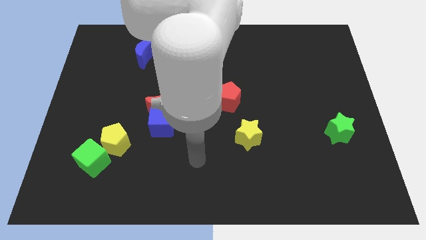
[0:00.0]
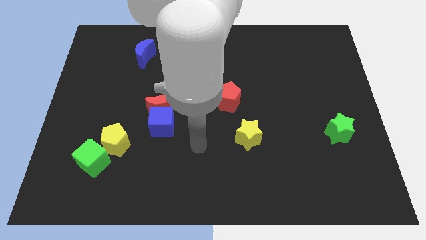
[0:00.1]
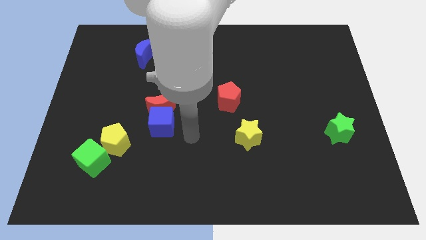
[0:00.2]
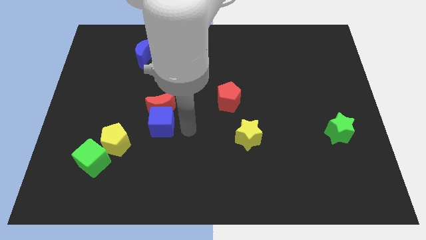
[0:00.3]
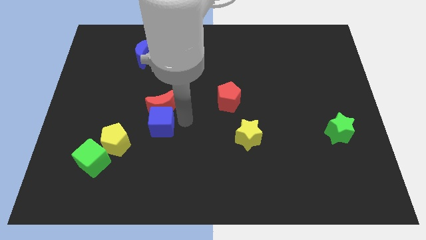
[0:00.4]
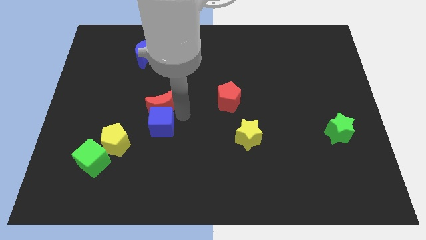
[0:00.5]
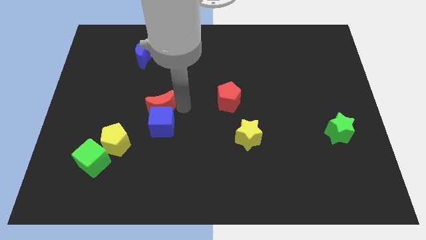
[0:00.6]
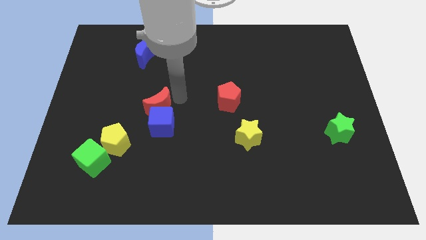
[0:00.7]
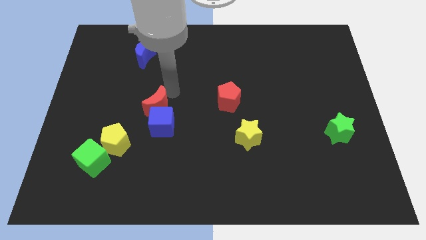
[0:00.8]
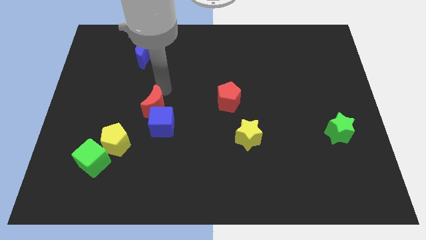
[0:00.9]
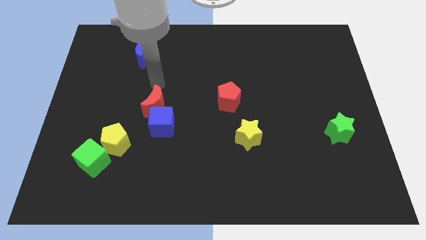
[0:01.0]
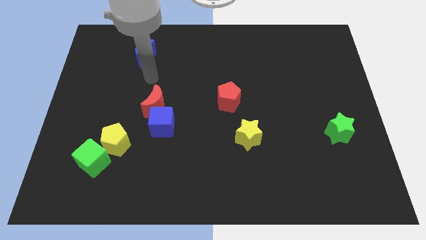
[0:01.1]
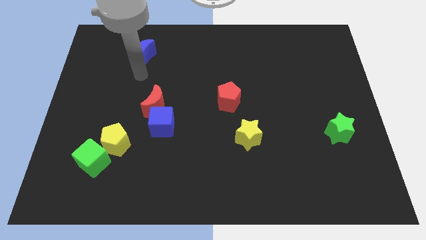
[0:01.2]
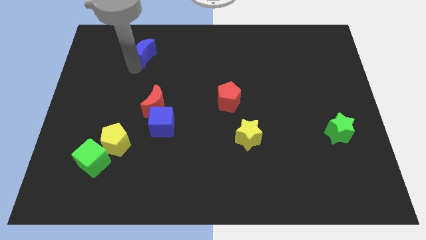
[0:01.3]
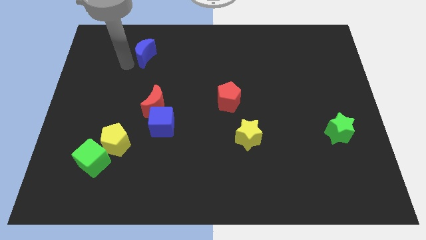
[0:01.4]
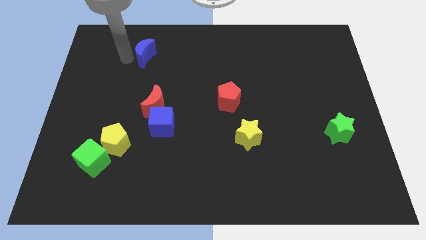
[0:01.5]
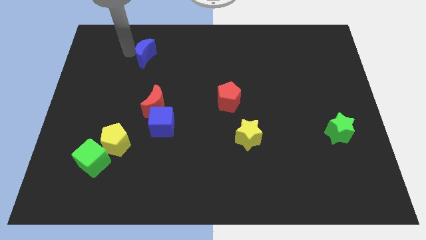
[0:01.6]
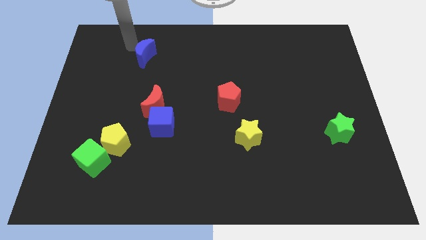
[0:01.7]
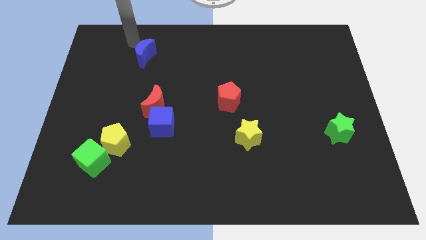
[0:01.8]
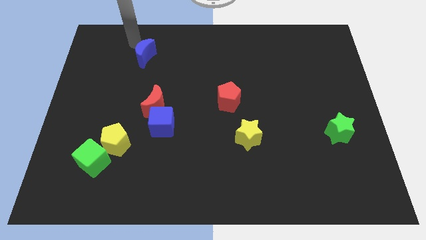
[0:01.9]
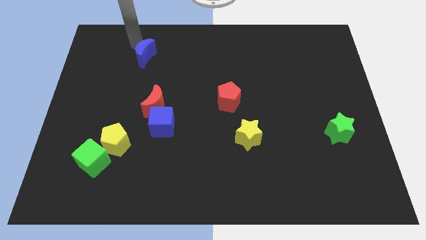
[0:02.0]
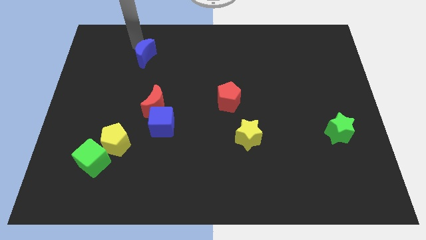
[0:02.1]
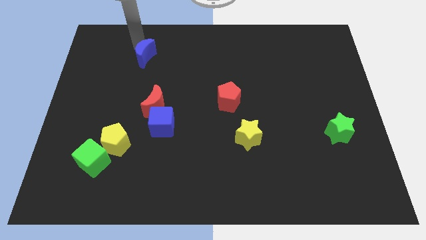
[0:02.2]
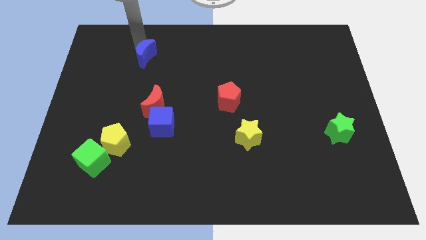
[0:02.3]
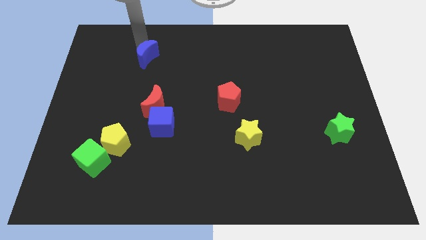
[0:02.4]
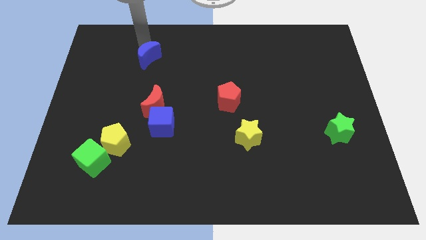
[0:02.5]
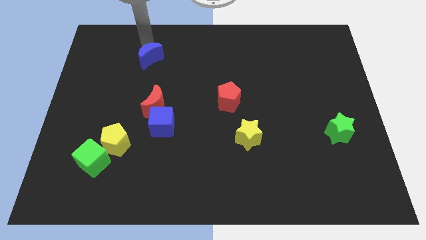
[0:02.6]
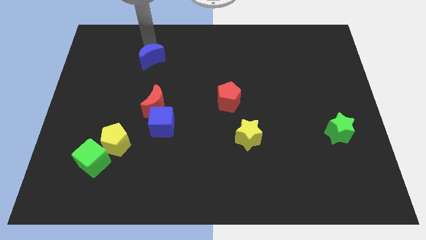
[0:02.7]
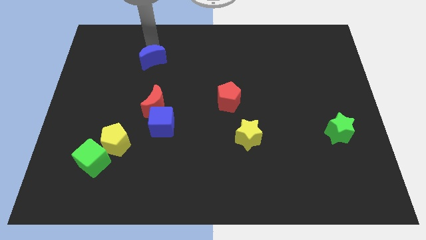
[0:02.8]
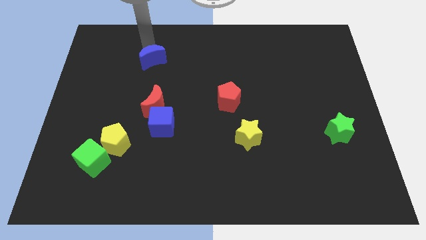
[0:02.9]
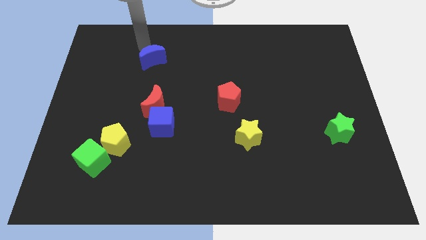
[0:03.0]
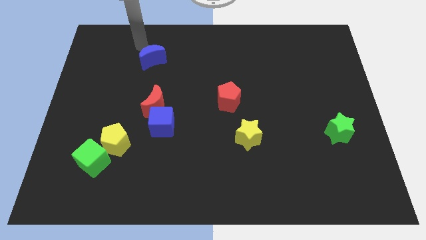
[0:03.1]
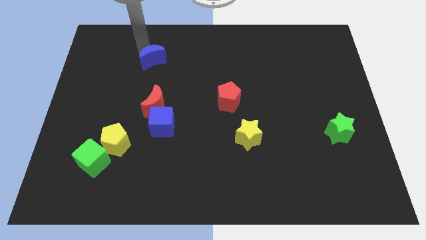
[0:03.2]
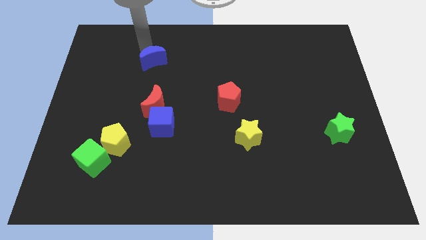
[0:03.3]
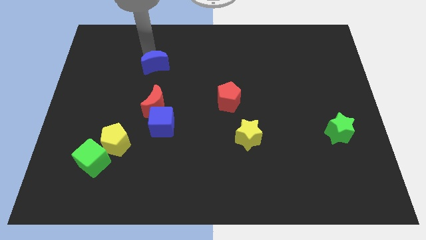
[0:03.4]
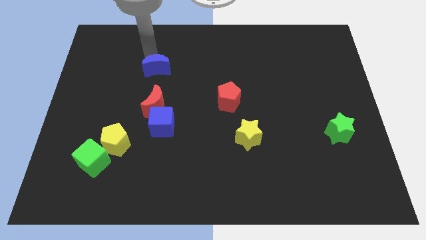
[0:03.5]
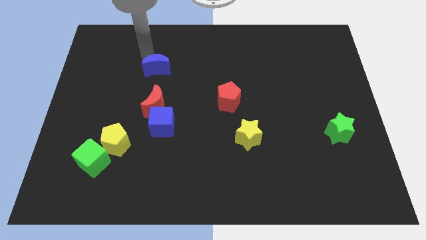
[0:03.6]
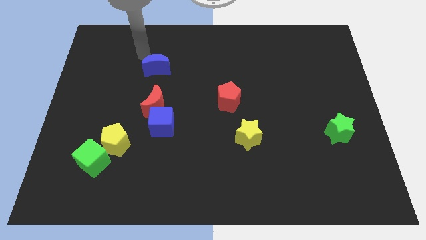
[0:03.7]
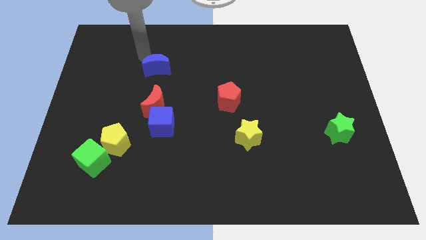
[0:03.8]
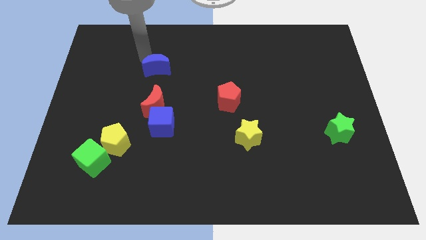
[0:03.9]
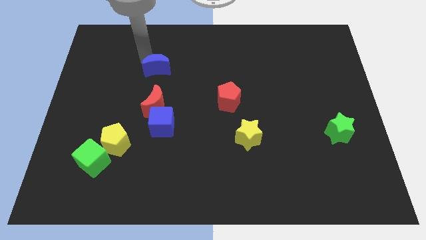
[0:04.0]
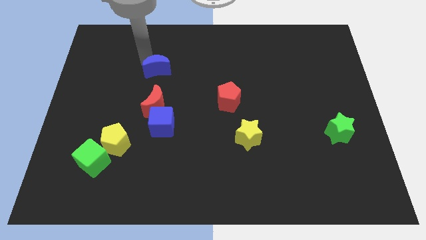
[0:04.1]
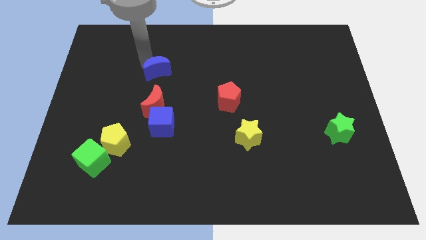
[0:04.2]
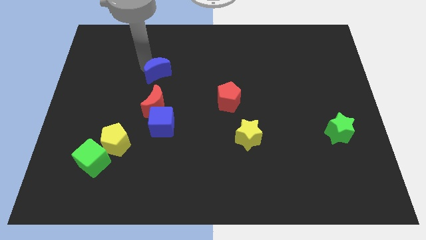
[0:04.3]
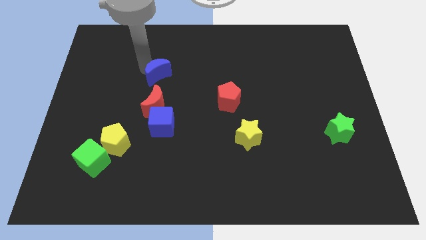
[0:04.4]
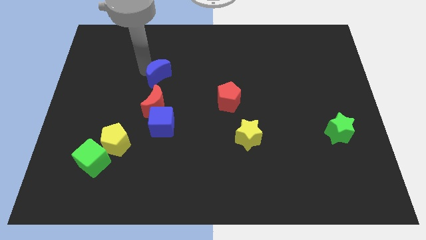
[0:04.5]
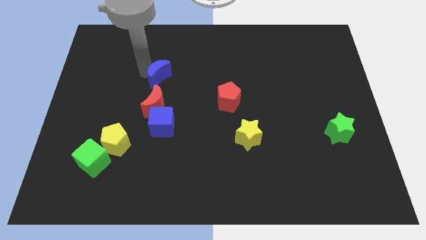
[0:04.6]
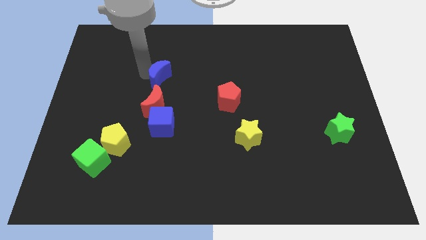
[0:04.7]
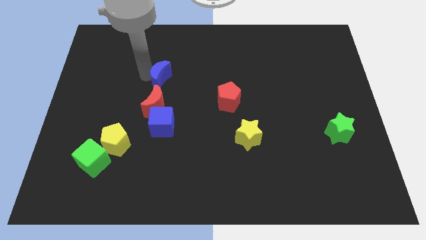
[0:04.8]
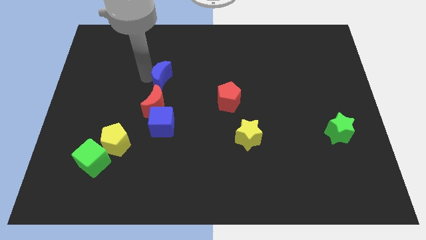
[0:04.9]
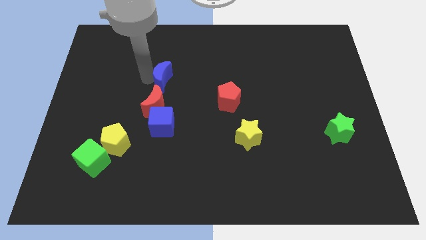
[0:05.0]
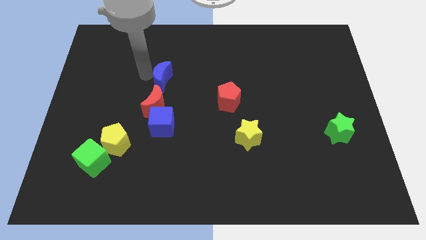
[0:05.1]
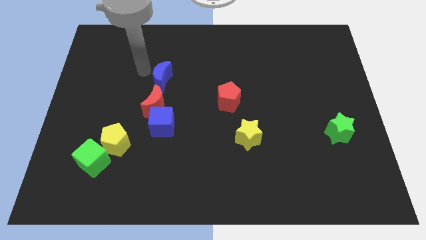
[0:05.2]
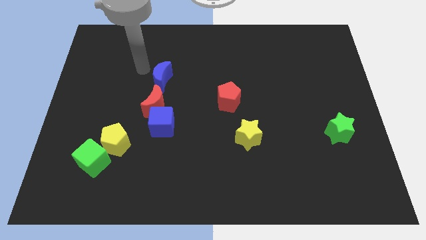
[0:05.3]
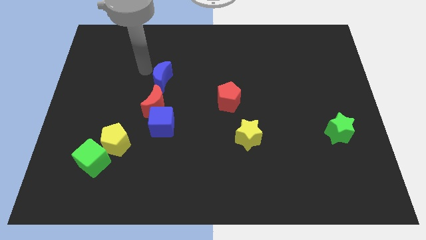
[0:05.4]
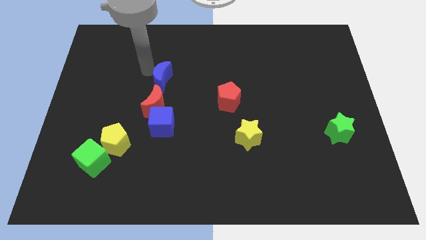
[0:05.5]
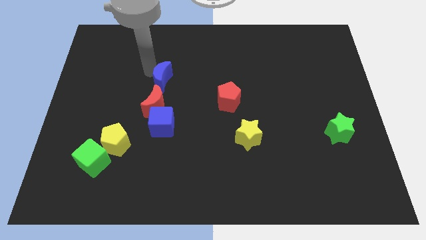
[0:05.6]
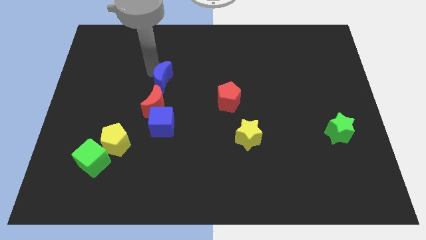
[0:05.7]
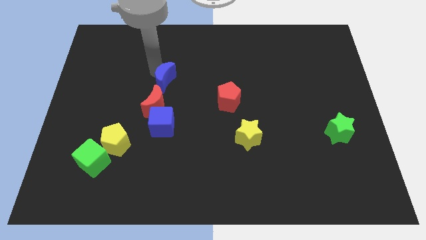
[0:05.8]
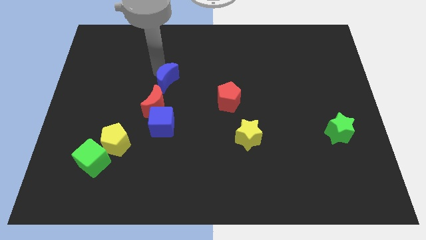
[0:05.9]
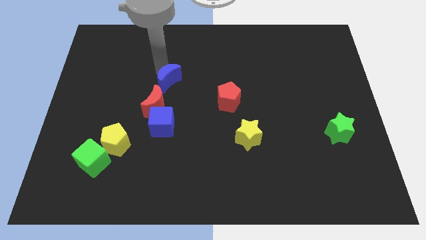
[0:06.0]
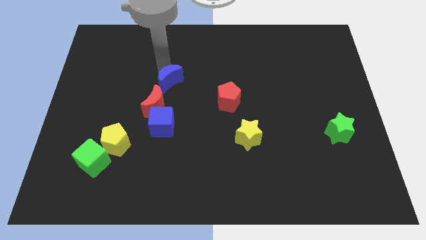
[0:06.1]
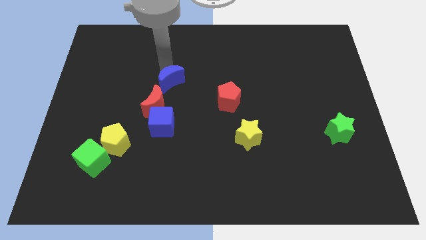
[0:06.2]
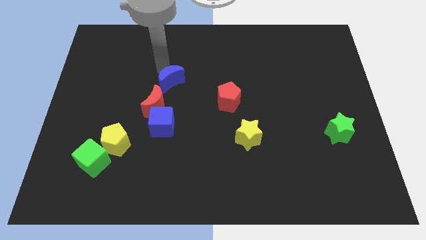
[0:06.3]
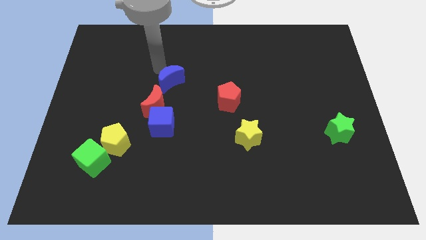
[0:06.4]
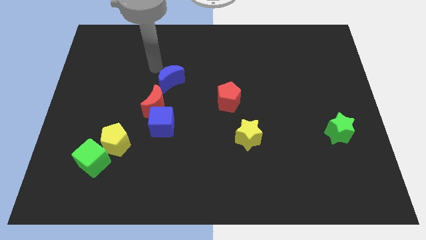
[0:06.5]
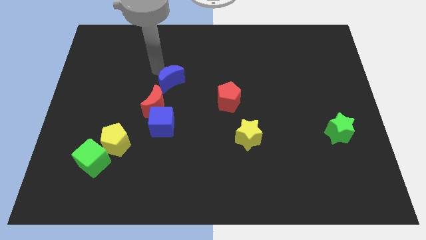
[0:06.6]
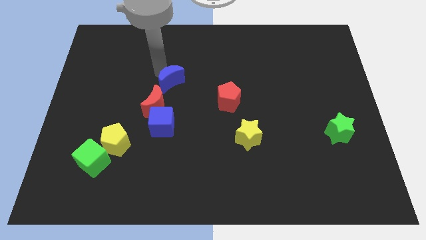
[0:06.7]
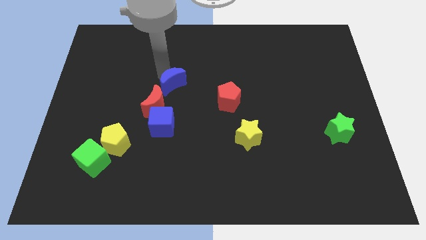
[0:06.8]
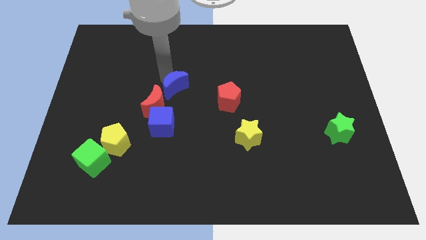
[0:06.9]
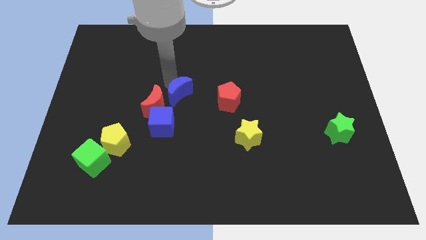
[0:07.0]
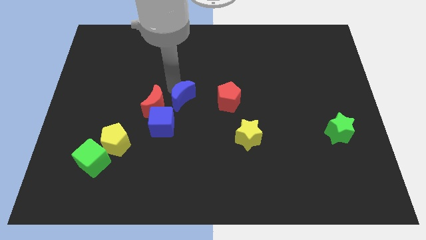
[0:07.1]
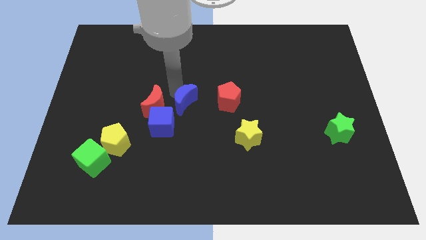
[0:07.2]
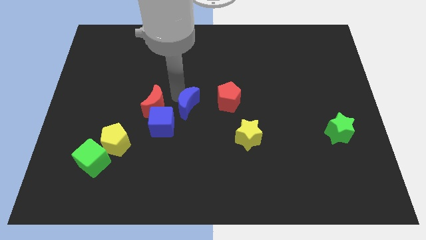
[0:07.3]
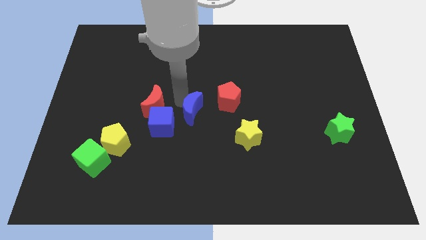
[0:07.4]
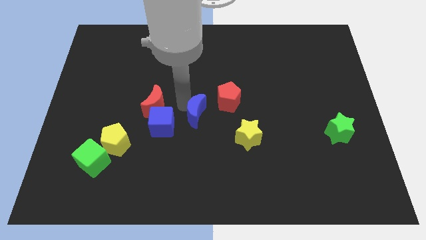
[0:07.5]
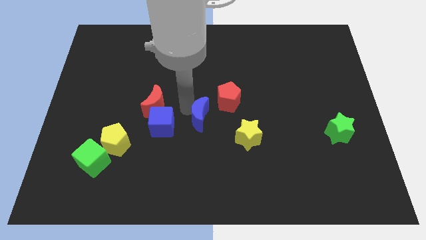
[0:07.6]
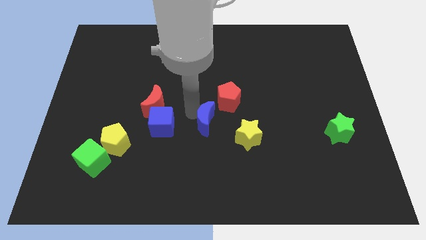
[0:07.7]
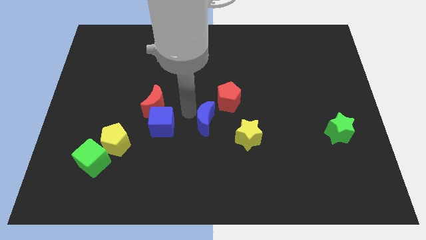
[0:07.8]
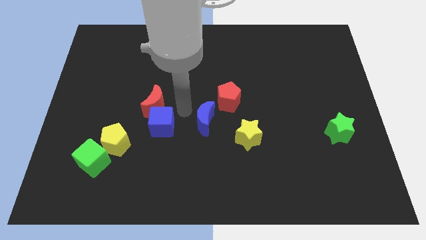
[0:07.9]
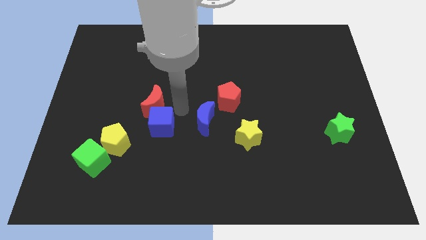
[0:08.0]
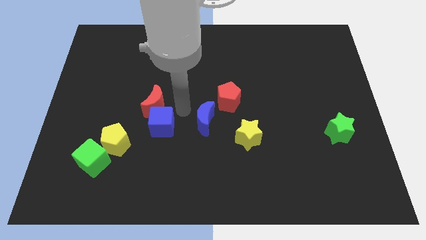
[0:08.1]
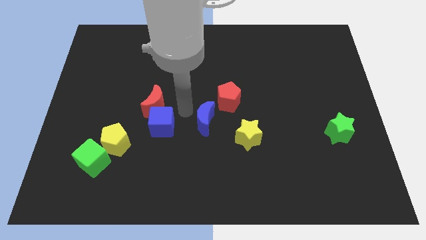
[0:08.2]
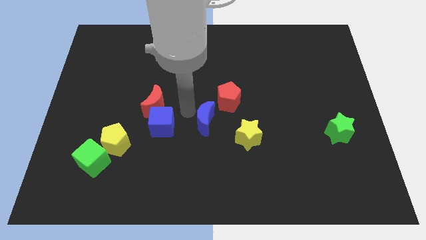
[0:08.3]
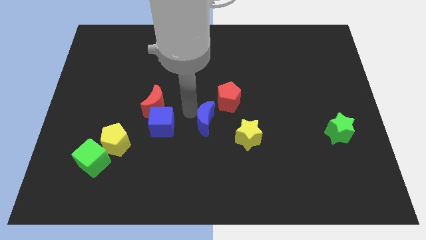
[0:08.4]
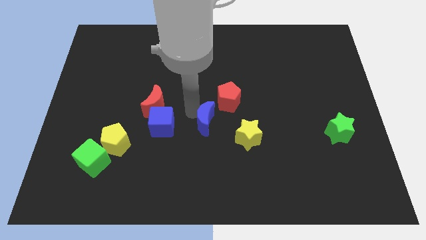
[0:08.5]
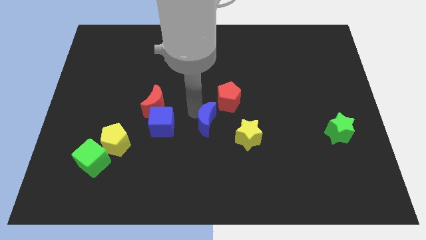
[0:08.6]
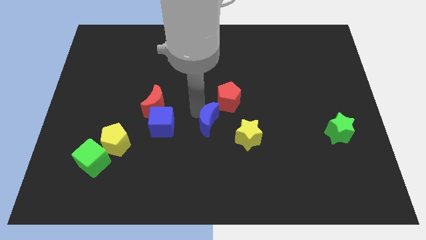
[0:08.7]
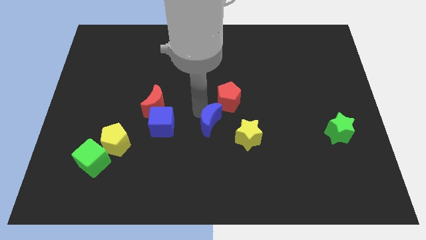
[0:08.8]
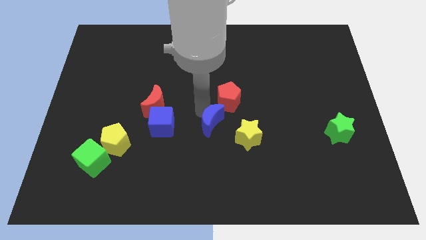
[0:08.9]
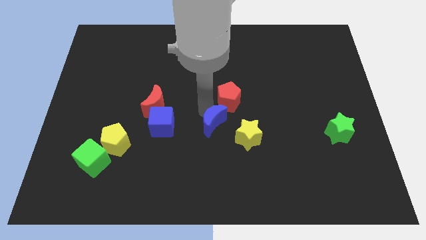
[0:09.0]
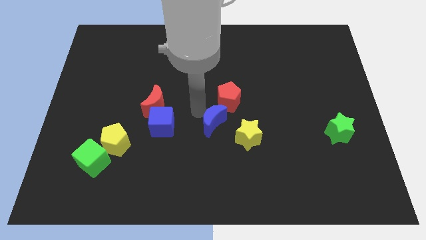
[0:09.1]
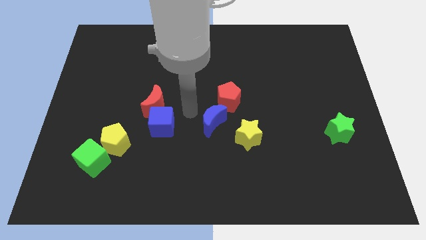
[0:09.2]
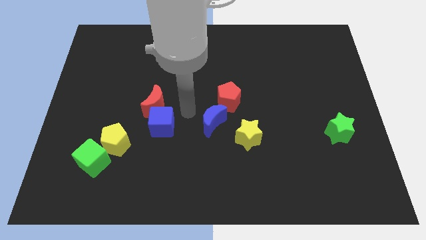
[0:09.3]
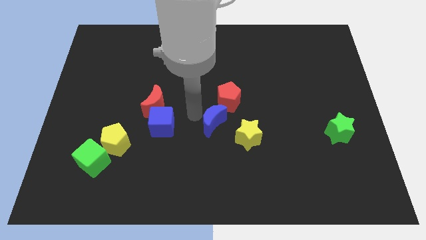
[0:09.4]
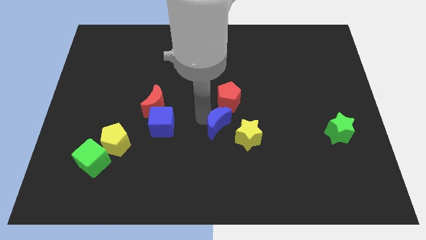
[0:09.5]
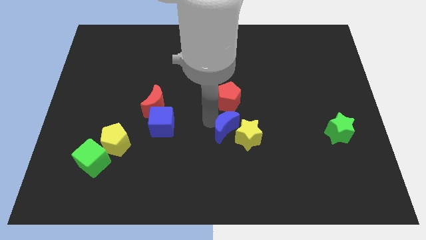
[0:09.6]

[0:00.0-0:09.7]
move the blue moon next to the yellow star
